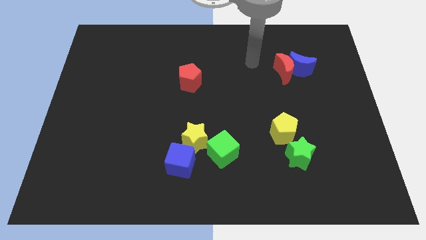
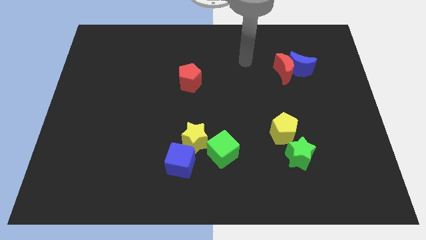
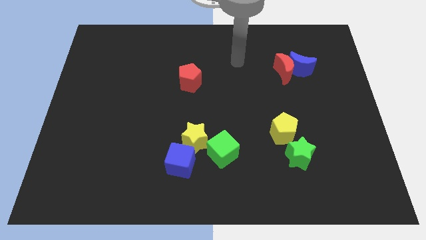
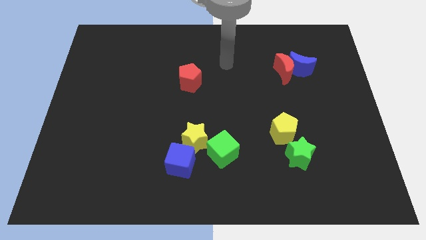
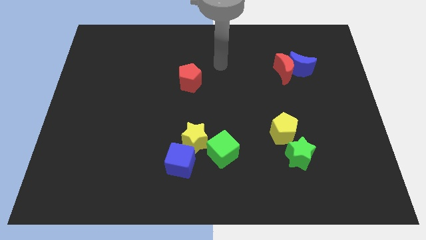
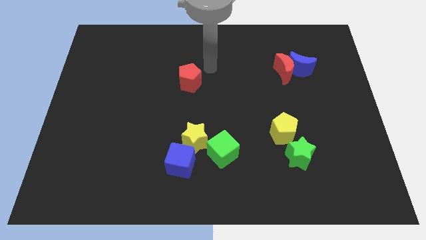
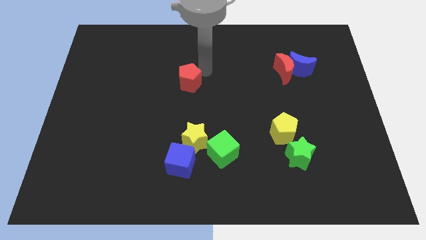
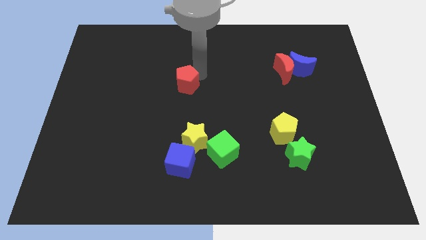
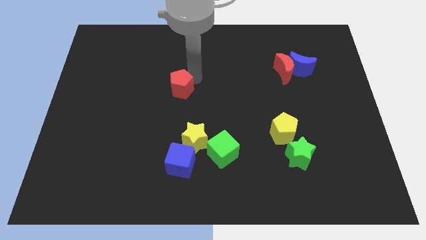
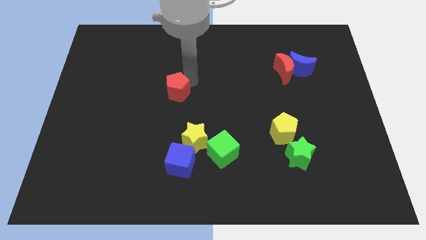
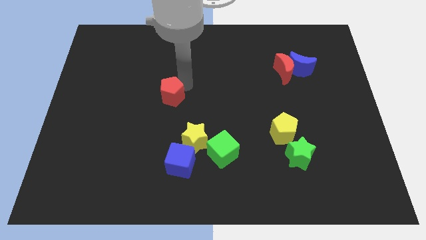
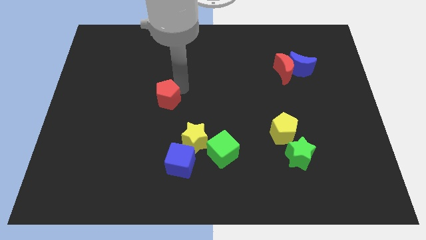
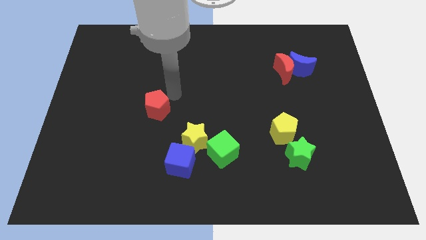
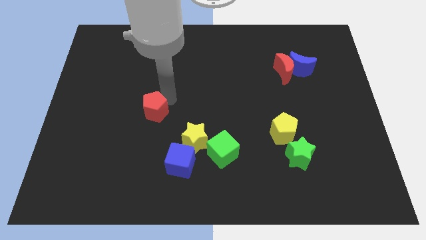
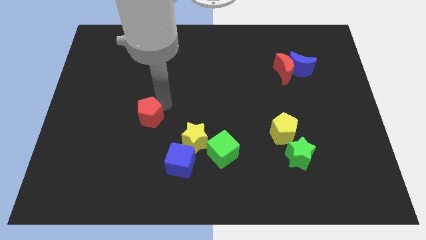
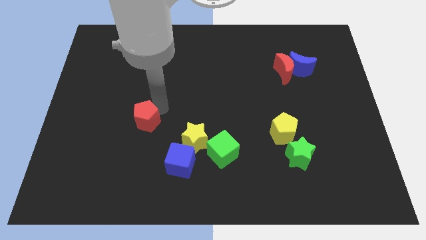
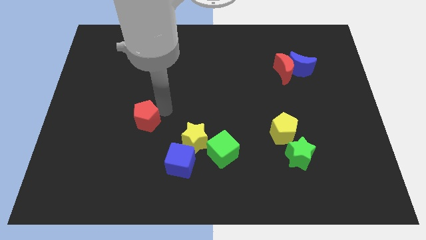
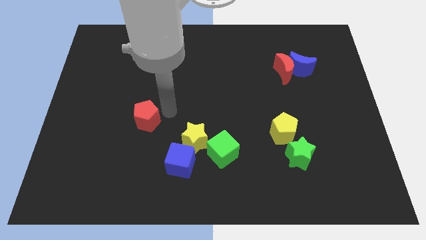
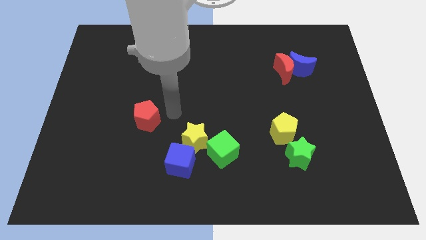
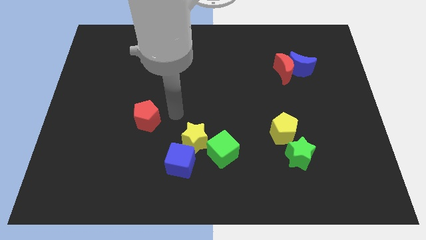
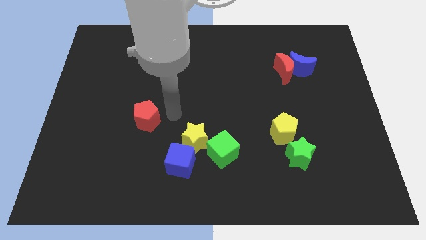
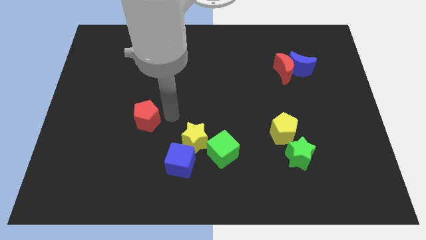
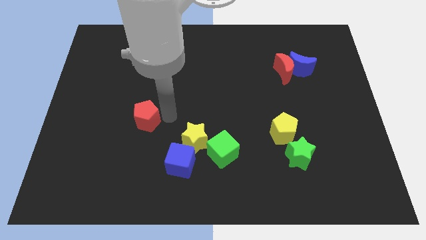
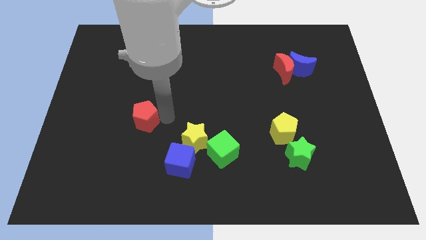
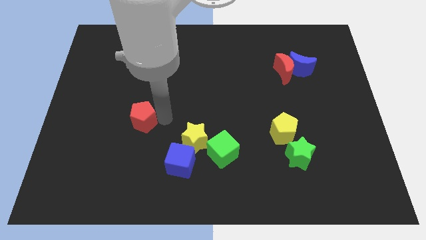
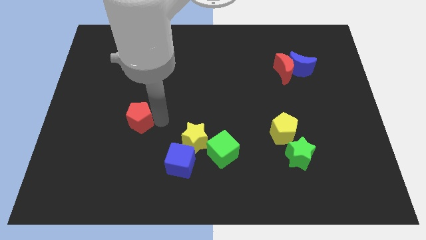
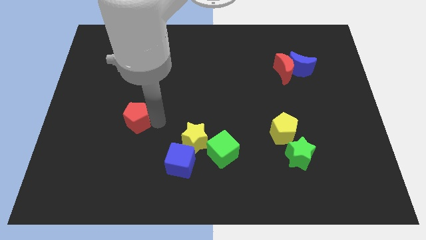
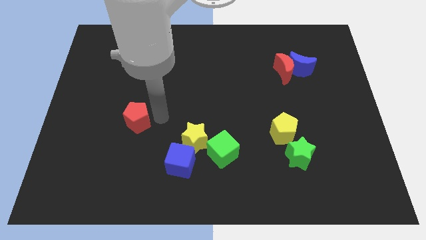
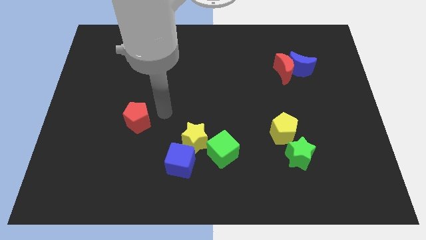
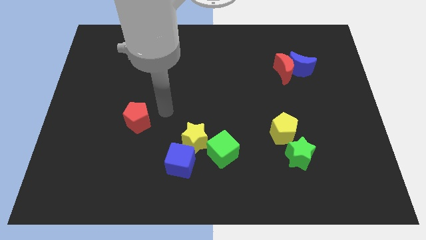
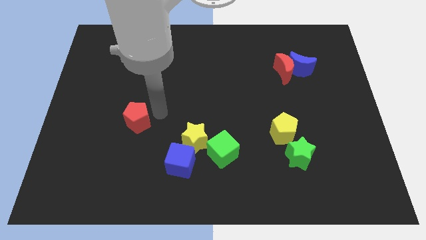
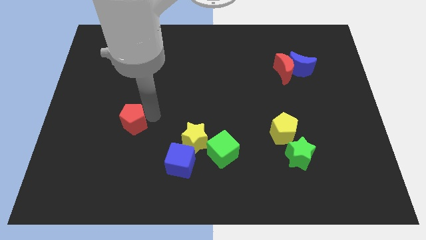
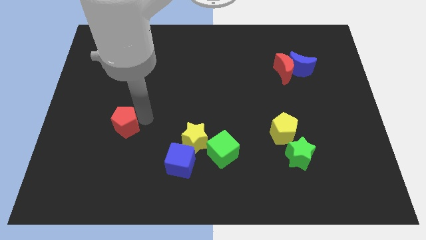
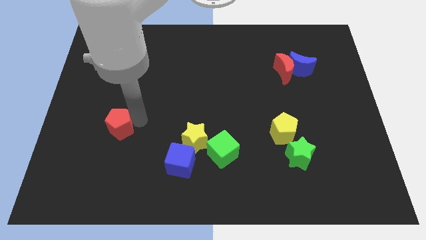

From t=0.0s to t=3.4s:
slide the red pentagon diagonally down and to the left

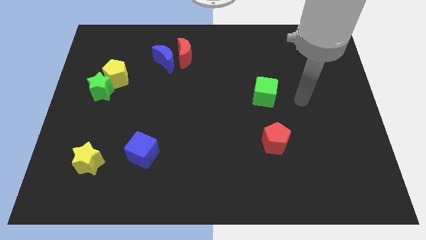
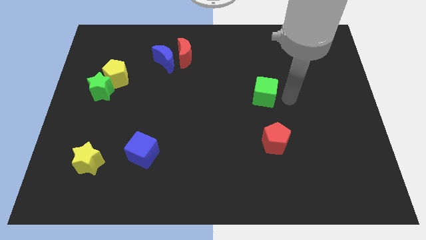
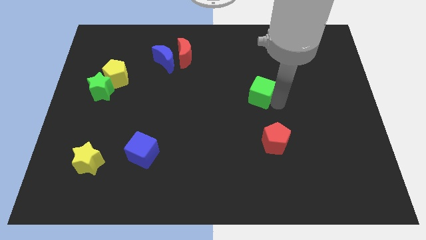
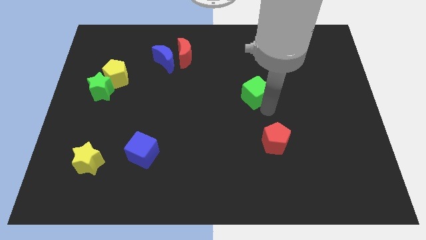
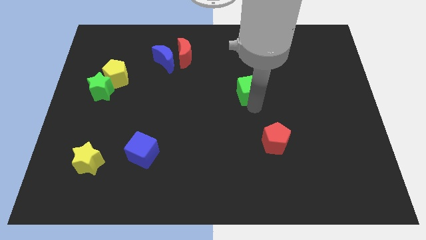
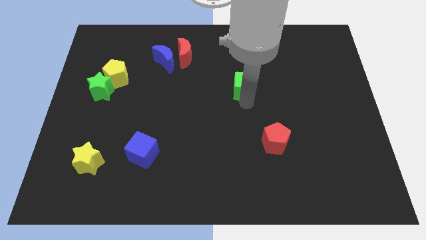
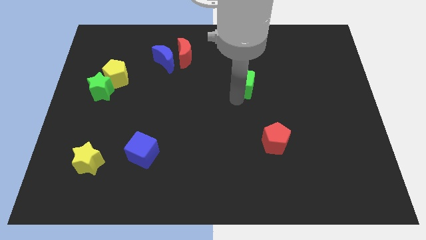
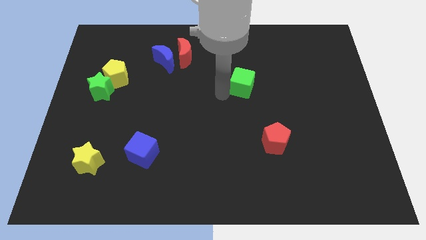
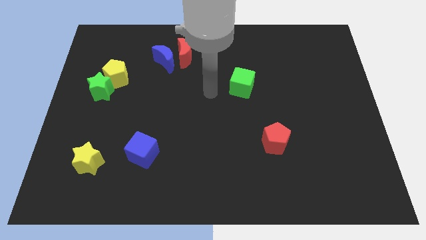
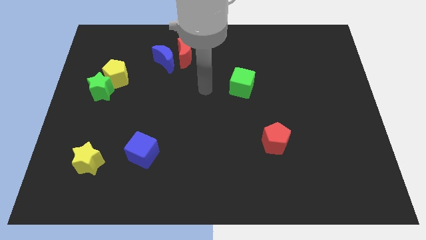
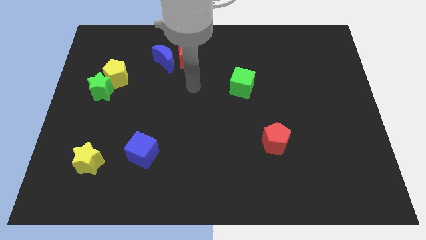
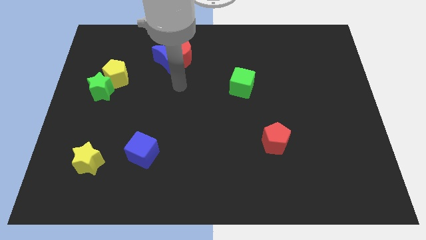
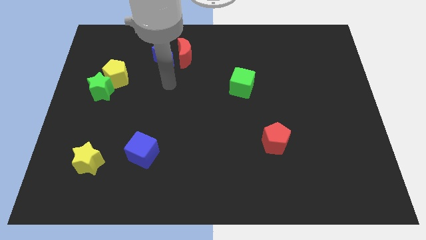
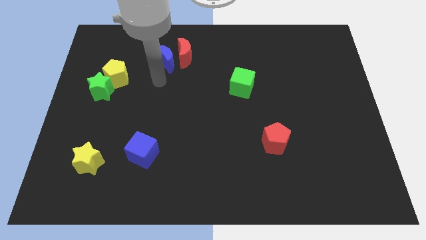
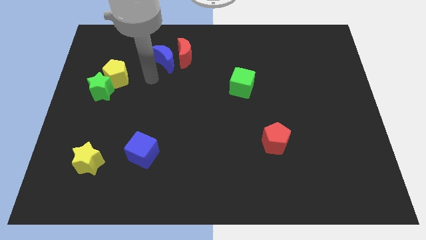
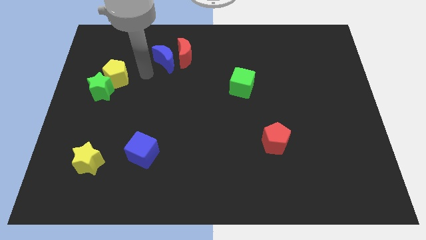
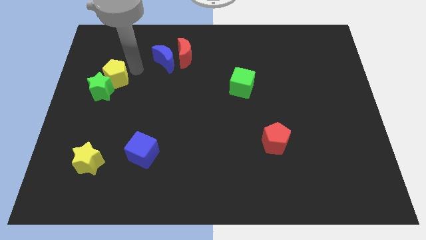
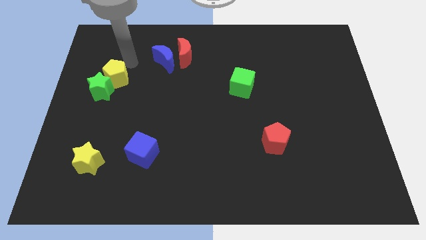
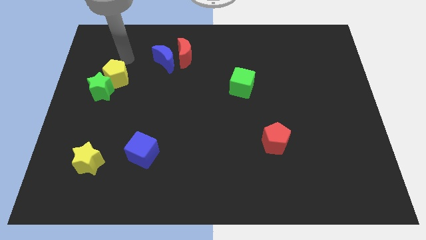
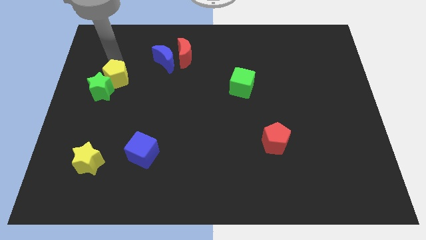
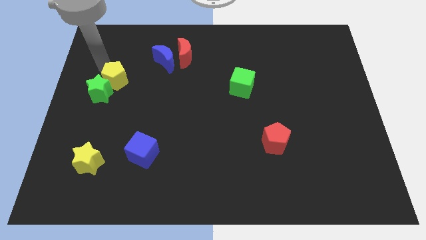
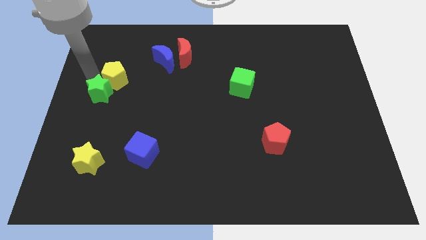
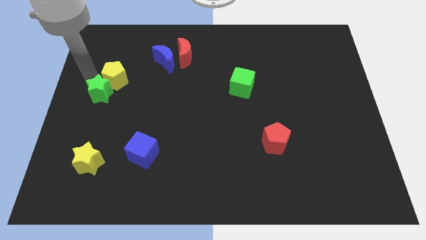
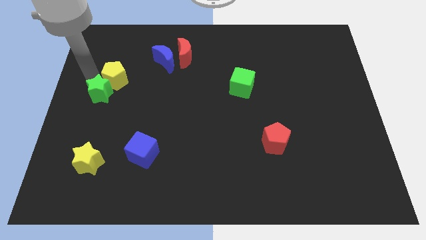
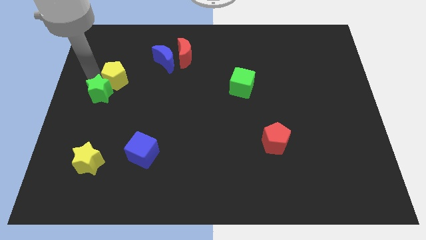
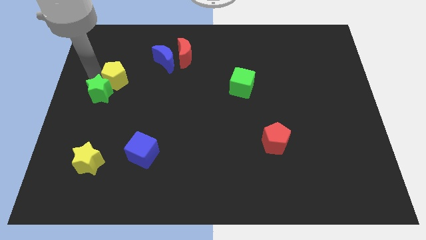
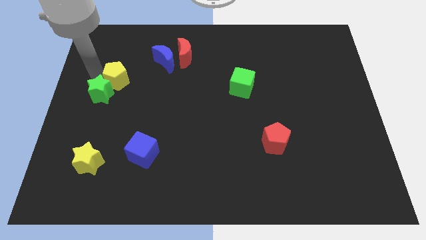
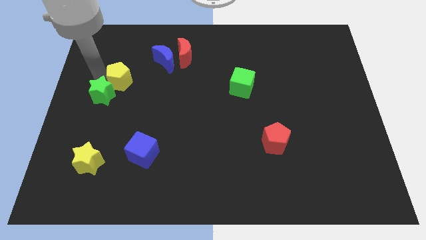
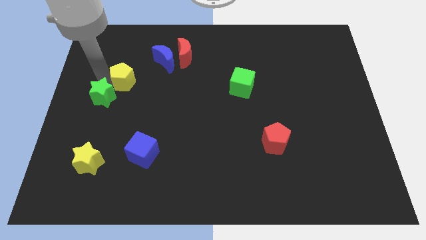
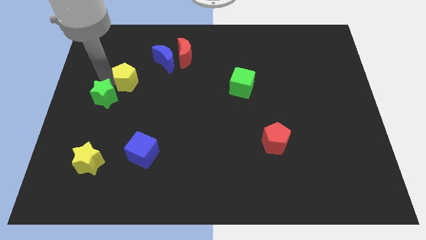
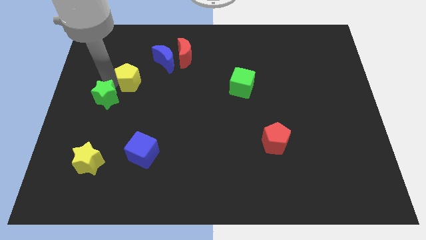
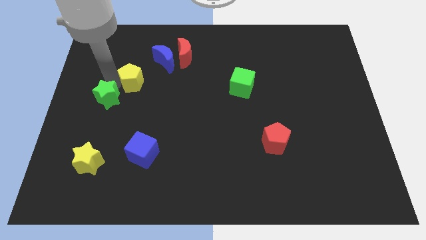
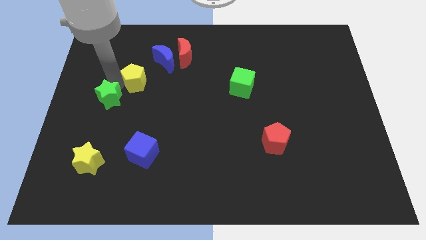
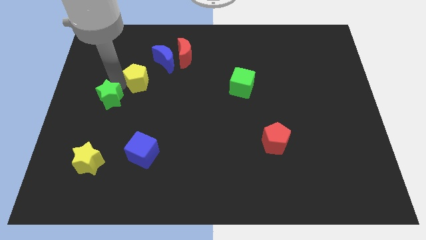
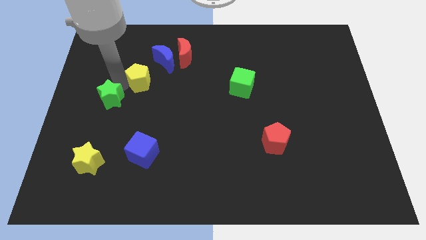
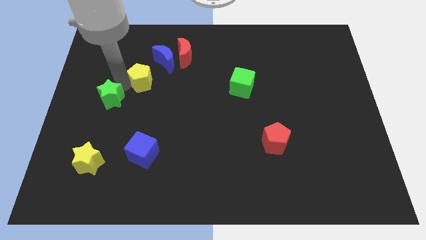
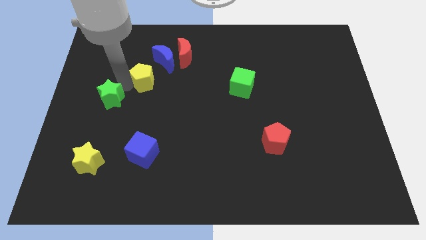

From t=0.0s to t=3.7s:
slide the yellow pentagon a little bit to the right

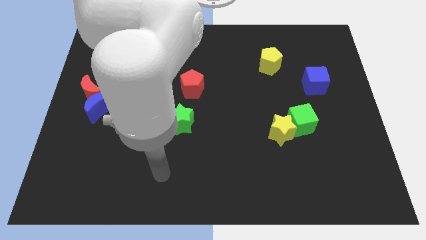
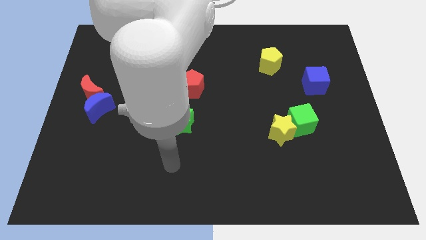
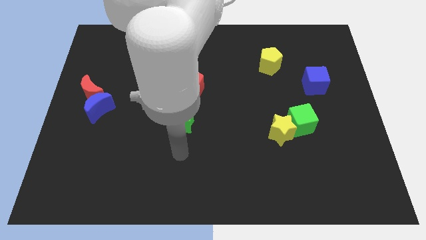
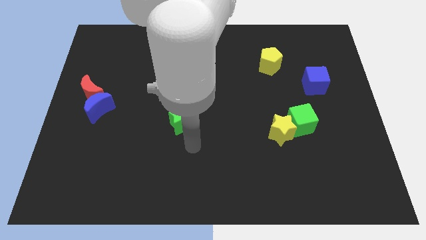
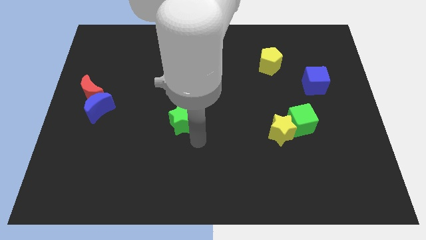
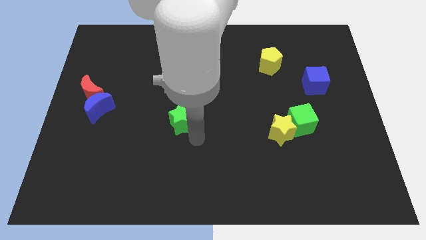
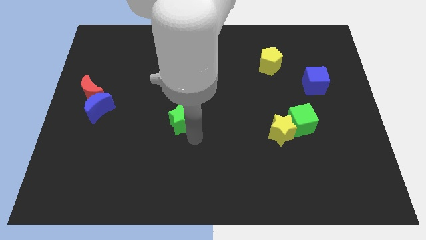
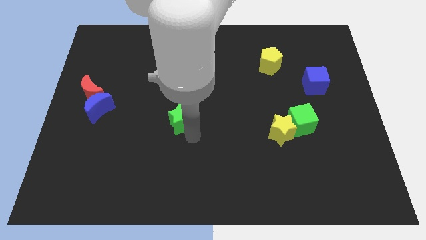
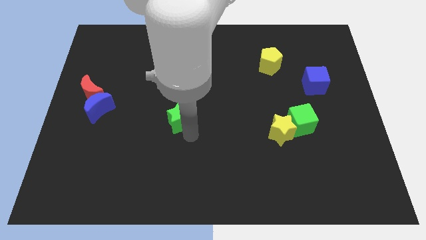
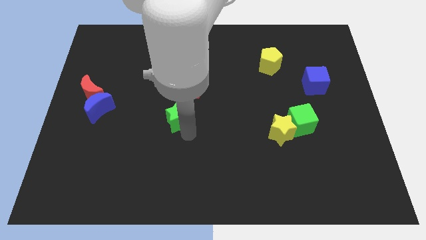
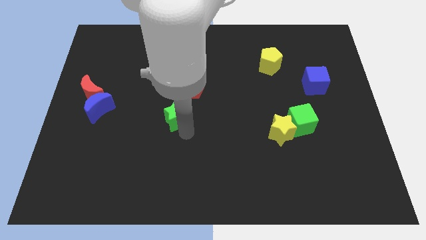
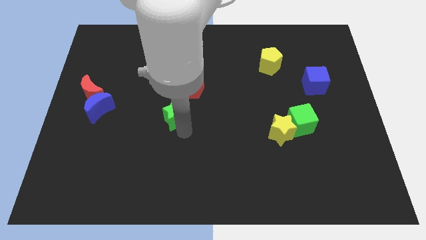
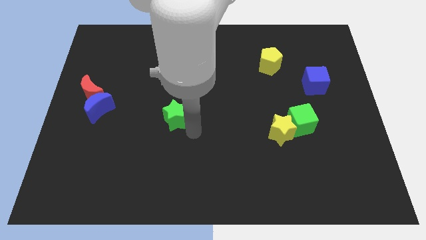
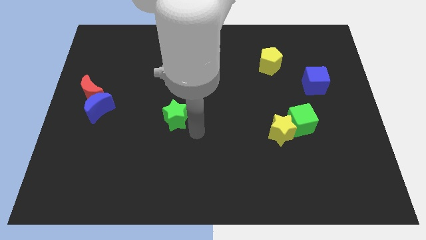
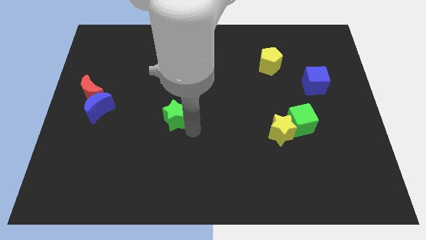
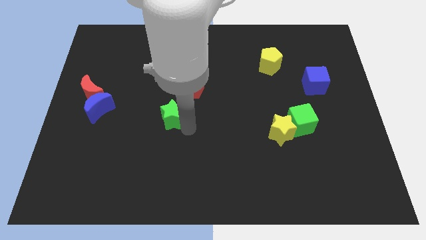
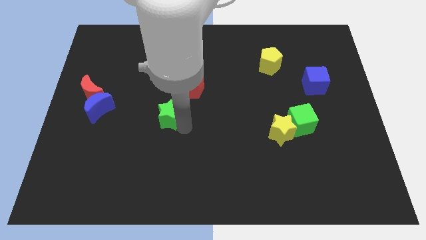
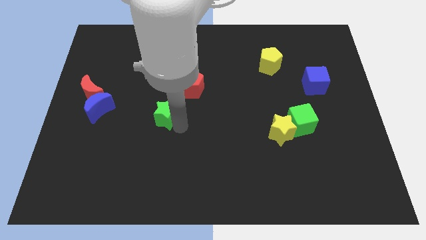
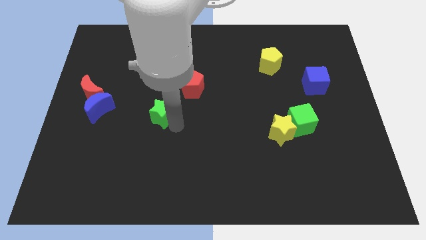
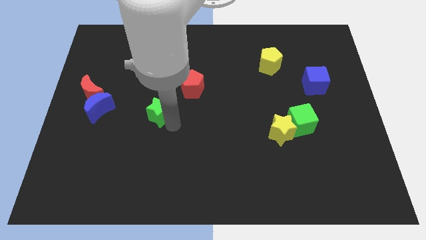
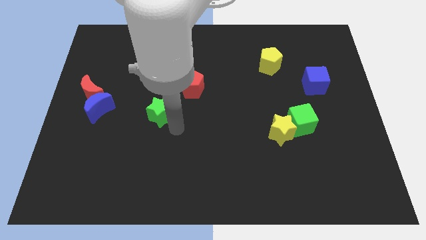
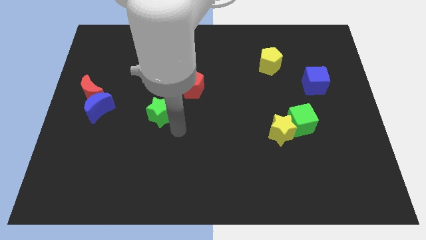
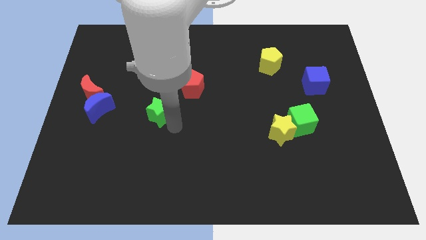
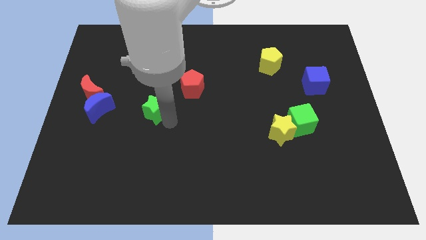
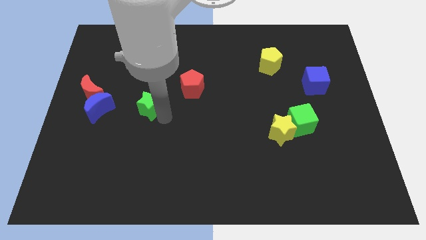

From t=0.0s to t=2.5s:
push the green star a little bit upwards and to the left
